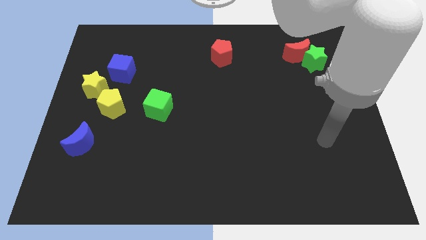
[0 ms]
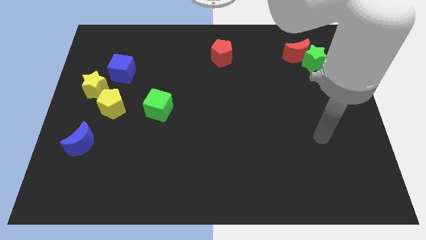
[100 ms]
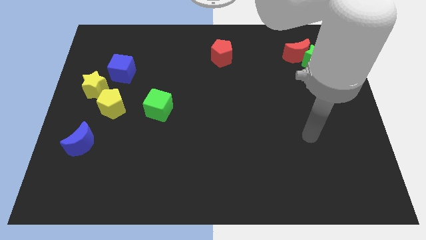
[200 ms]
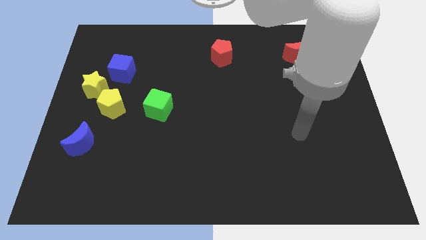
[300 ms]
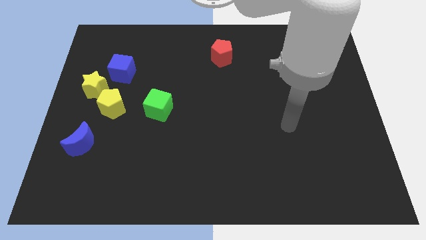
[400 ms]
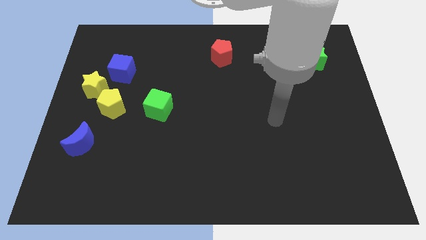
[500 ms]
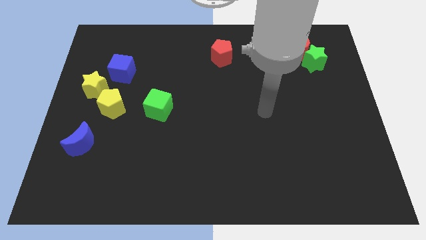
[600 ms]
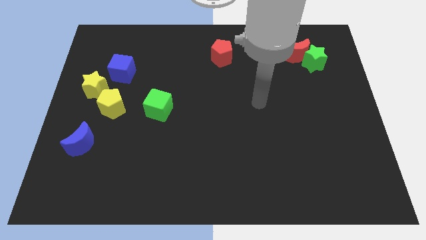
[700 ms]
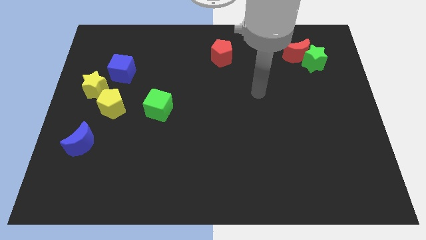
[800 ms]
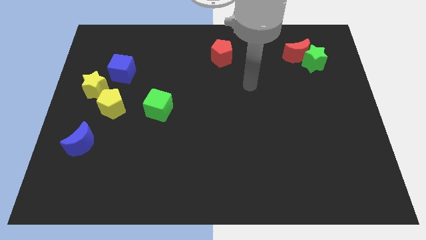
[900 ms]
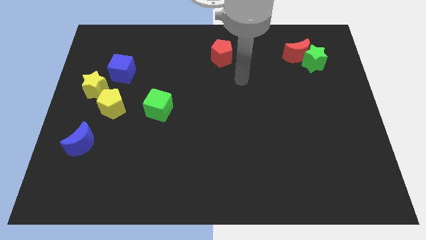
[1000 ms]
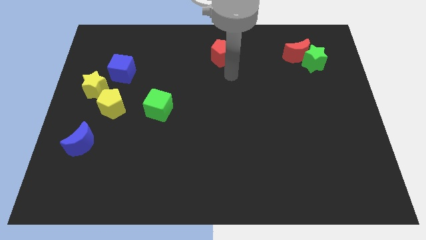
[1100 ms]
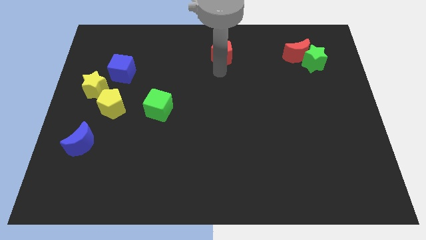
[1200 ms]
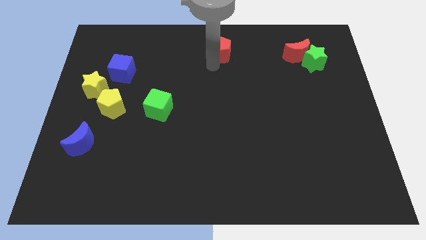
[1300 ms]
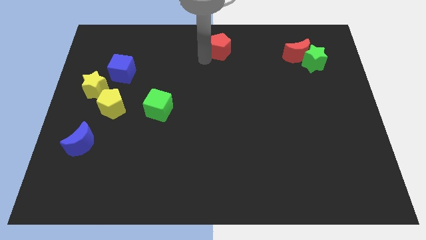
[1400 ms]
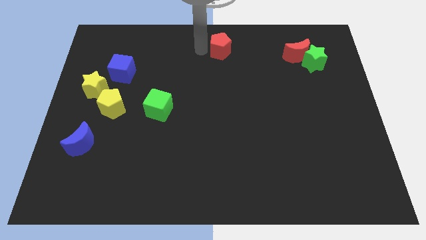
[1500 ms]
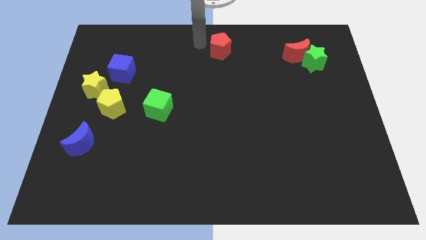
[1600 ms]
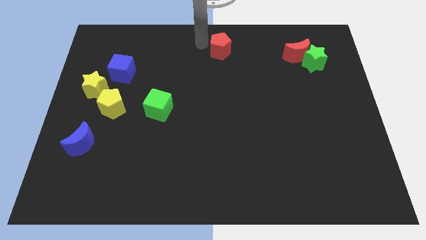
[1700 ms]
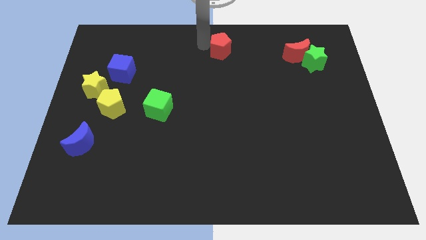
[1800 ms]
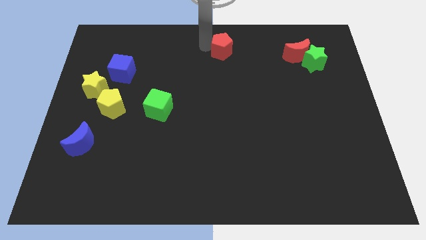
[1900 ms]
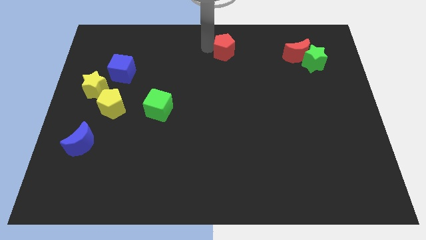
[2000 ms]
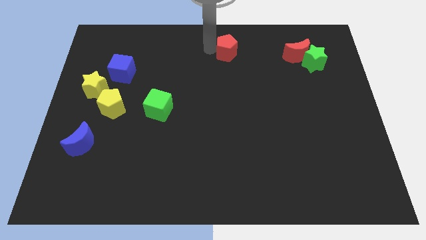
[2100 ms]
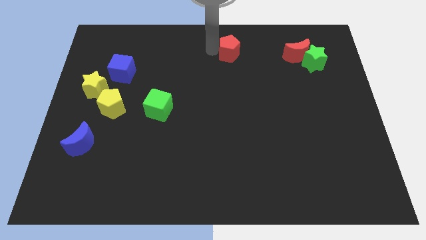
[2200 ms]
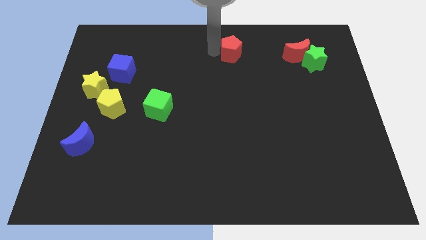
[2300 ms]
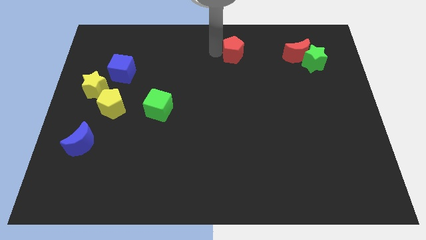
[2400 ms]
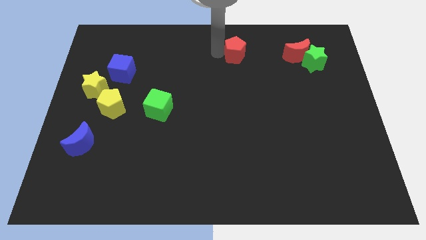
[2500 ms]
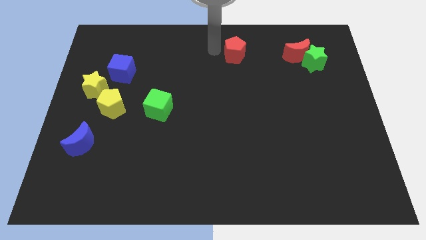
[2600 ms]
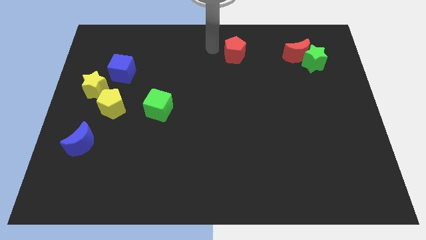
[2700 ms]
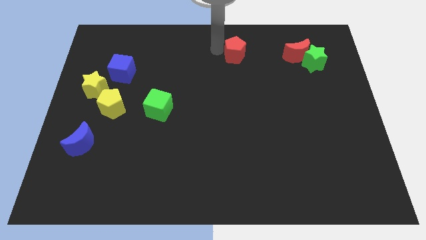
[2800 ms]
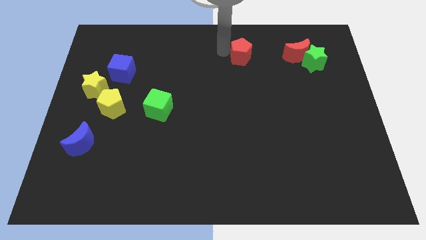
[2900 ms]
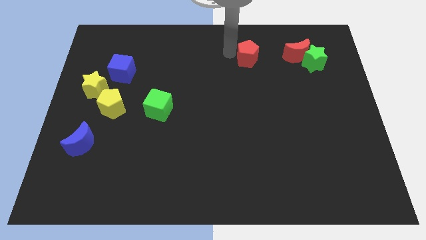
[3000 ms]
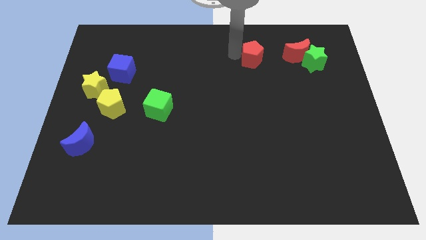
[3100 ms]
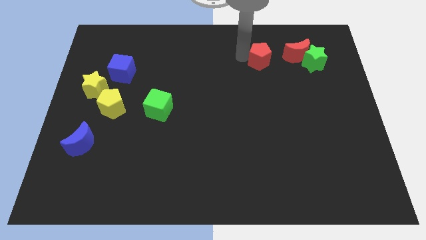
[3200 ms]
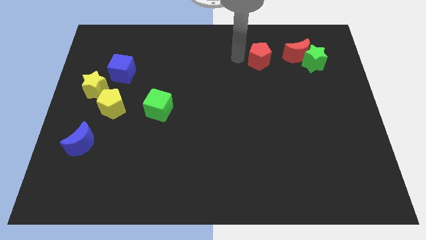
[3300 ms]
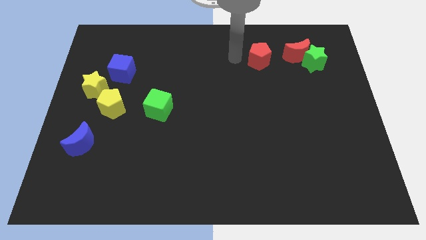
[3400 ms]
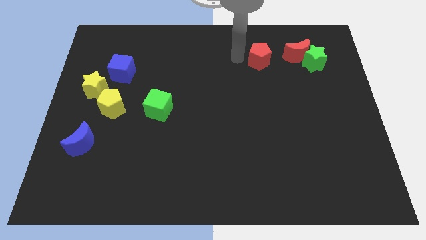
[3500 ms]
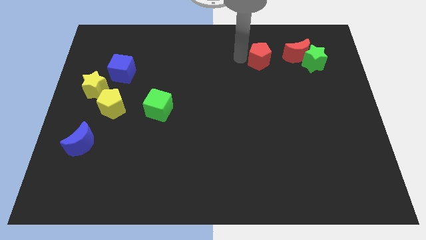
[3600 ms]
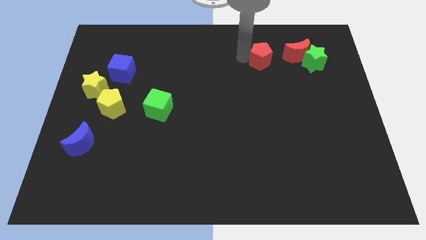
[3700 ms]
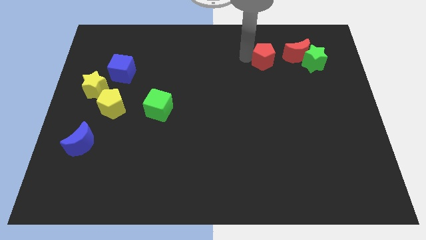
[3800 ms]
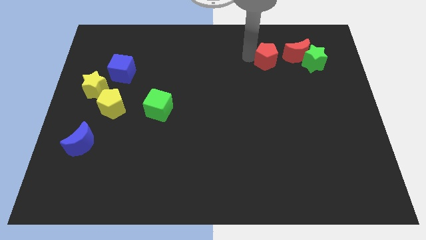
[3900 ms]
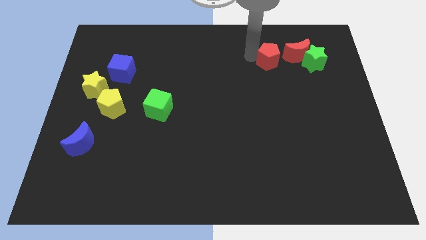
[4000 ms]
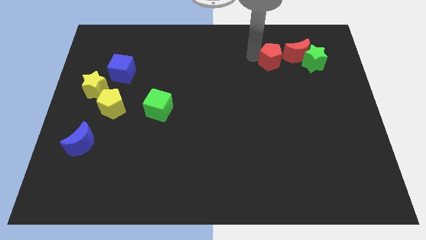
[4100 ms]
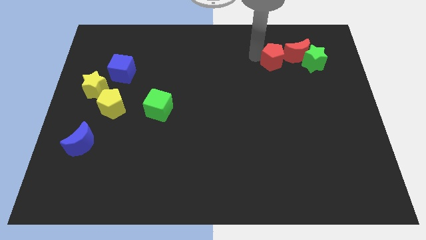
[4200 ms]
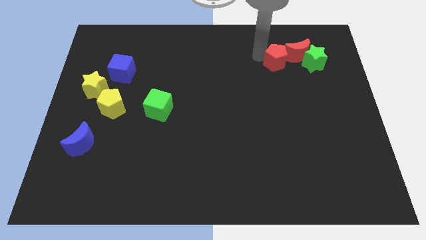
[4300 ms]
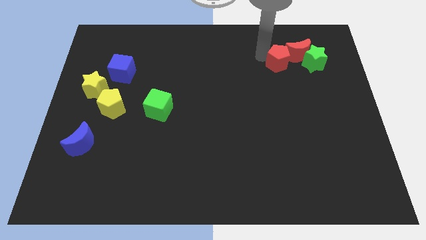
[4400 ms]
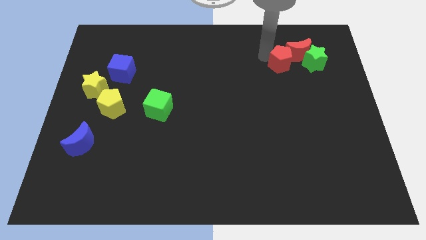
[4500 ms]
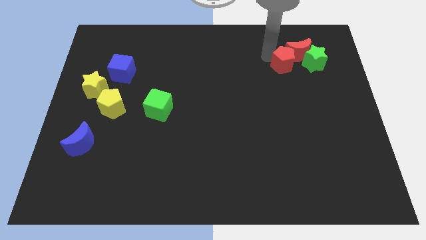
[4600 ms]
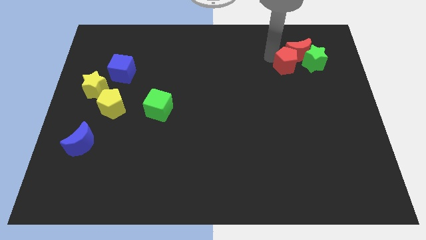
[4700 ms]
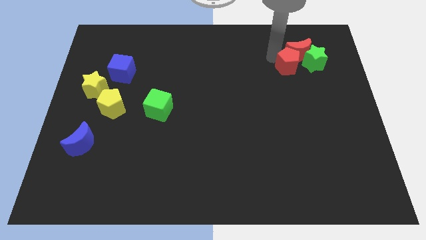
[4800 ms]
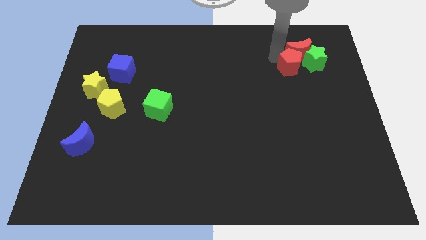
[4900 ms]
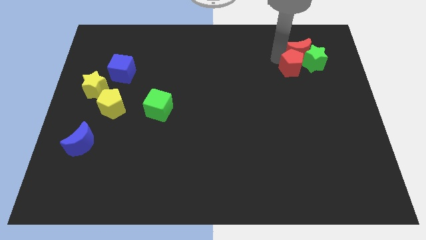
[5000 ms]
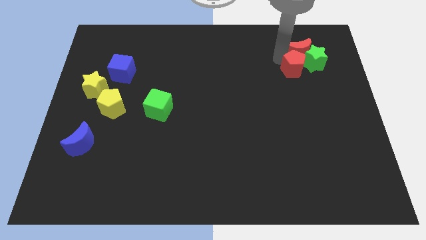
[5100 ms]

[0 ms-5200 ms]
push the red pentagon next to the green star

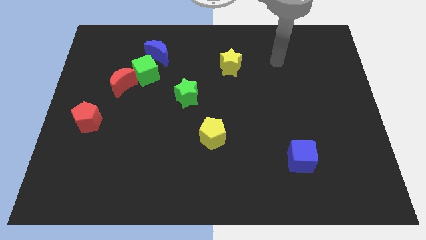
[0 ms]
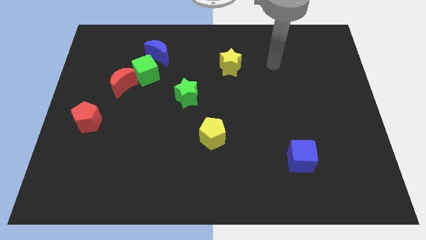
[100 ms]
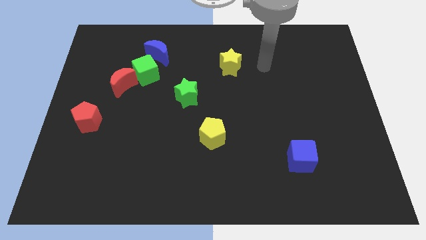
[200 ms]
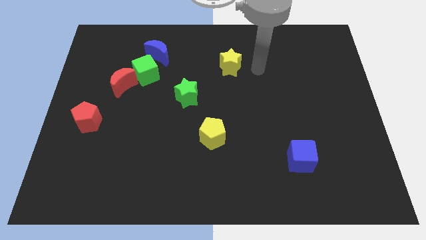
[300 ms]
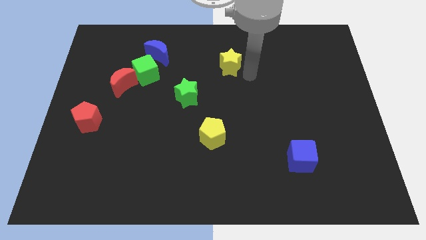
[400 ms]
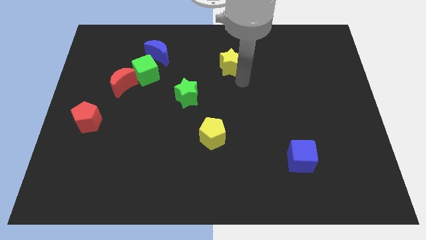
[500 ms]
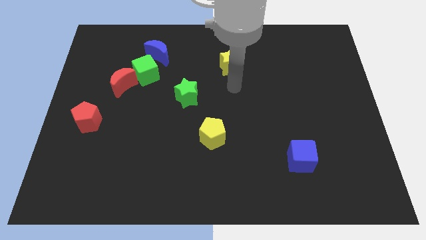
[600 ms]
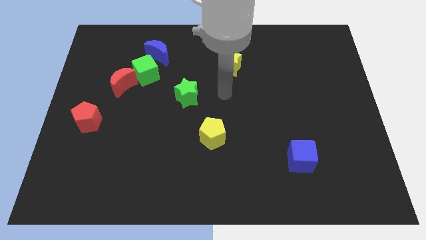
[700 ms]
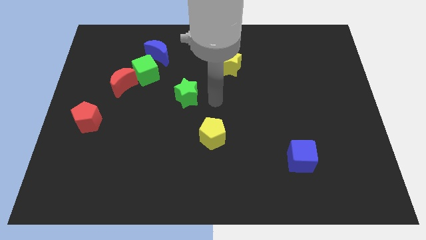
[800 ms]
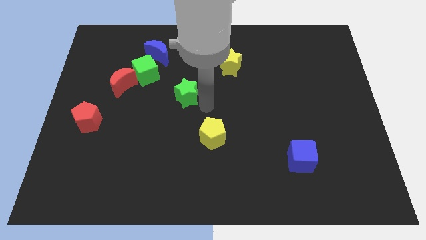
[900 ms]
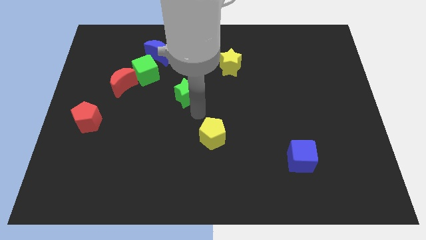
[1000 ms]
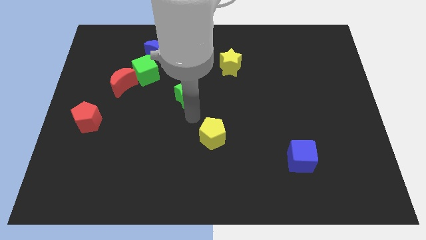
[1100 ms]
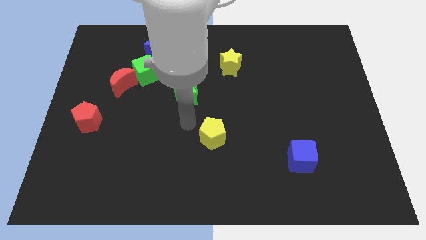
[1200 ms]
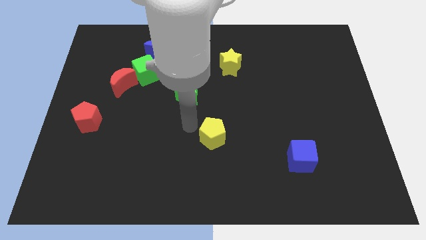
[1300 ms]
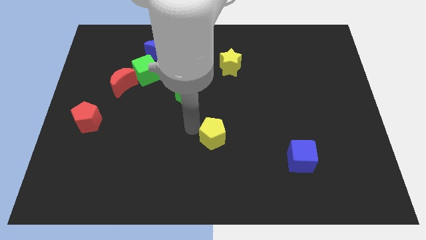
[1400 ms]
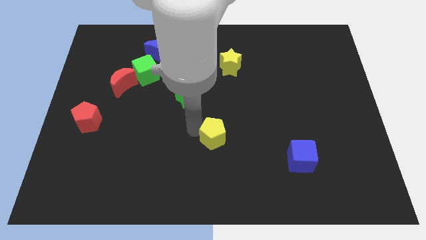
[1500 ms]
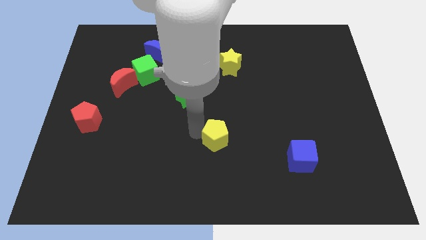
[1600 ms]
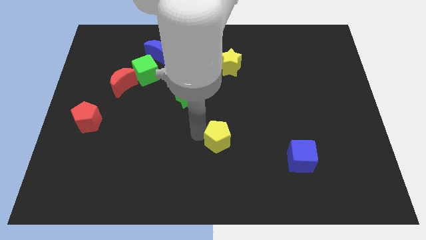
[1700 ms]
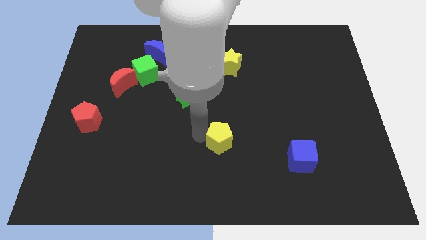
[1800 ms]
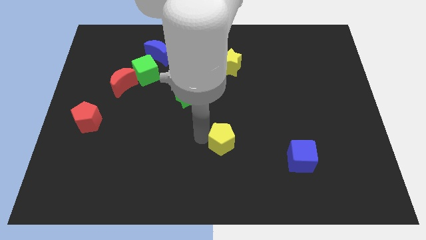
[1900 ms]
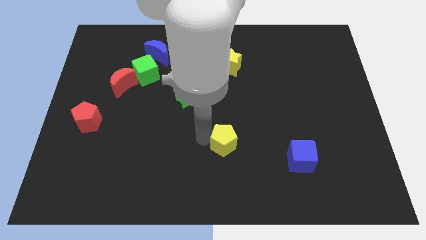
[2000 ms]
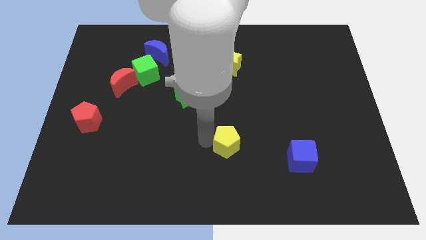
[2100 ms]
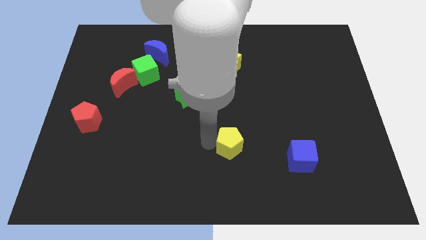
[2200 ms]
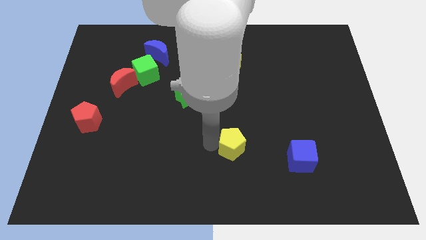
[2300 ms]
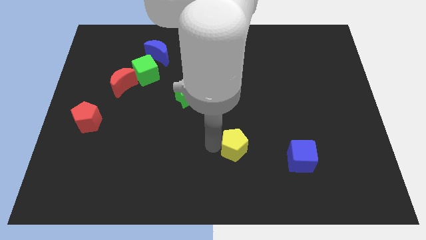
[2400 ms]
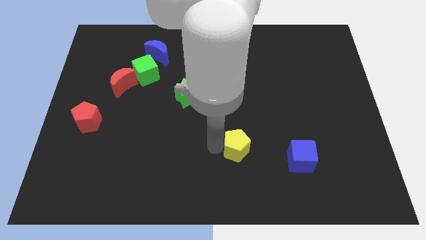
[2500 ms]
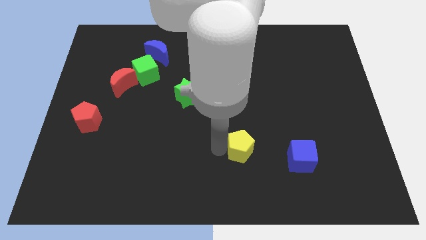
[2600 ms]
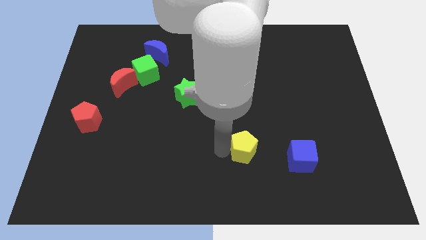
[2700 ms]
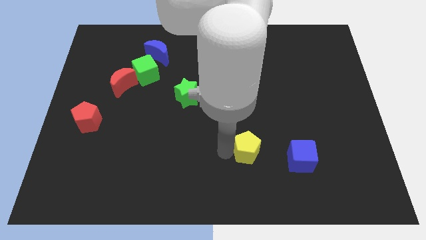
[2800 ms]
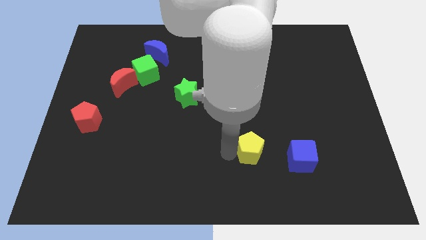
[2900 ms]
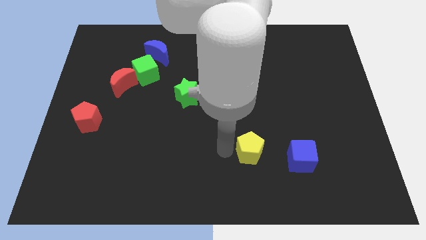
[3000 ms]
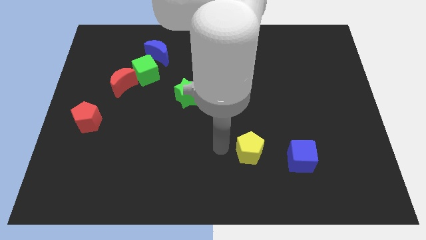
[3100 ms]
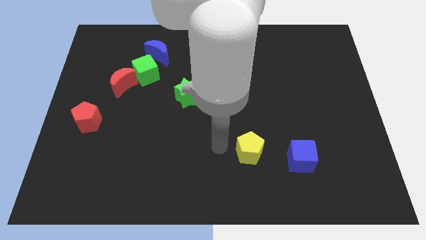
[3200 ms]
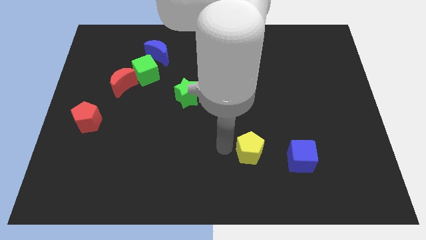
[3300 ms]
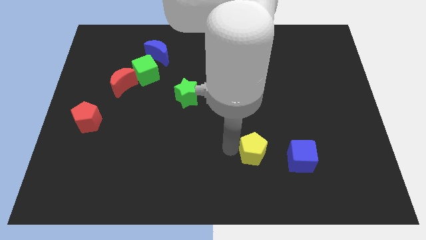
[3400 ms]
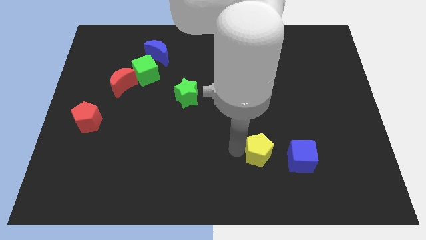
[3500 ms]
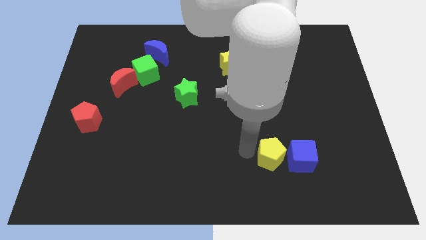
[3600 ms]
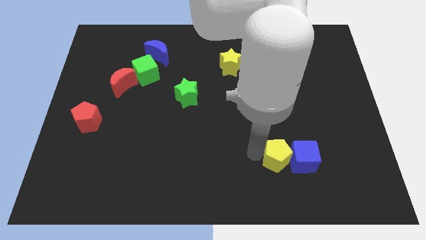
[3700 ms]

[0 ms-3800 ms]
move the yellow pentagon to the blue cube
